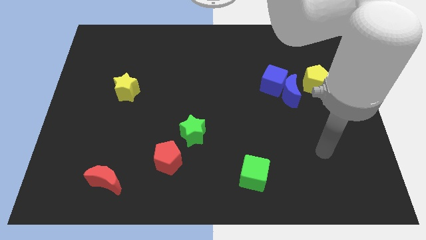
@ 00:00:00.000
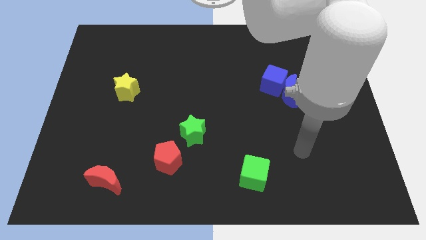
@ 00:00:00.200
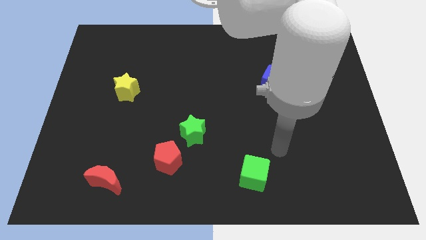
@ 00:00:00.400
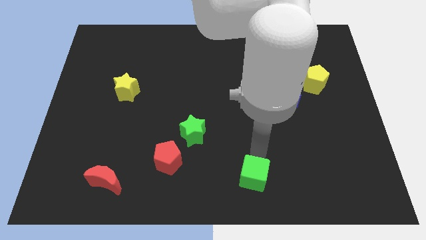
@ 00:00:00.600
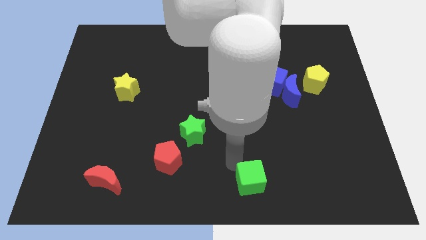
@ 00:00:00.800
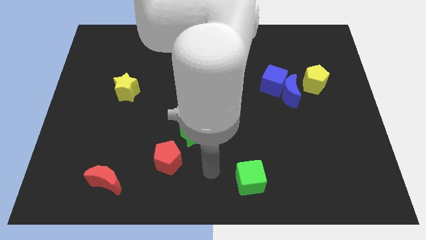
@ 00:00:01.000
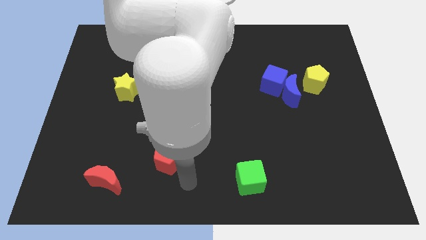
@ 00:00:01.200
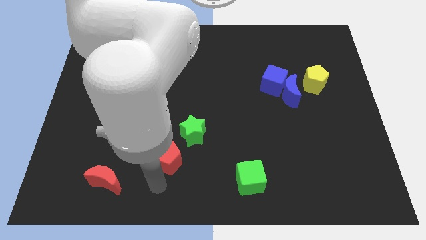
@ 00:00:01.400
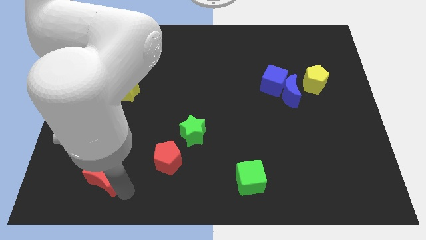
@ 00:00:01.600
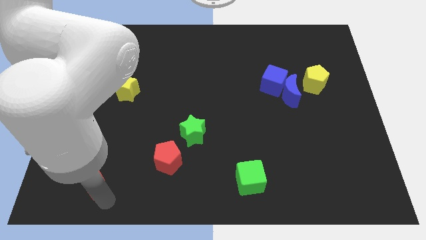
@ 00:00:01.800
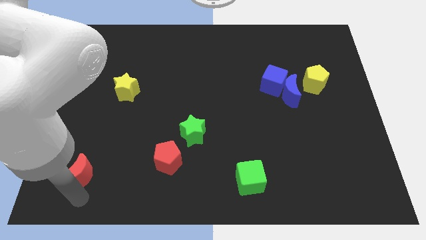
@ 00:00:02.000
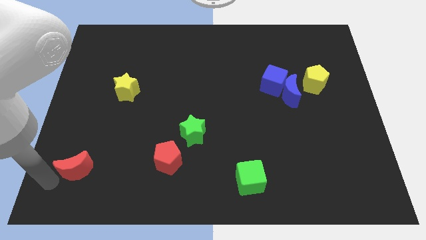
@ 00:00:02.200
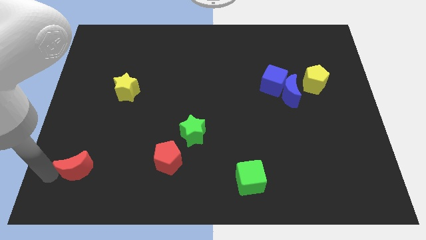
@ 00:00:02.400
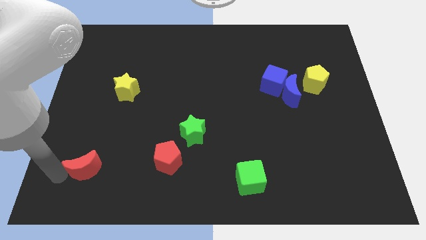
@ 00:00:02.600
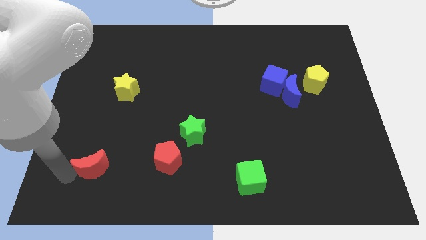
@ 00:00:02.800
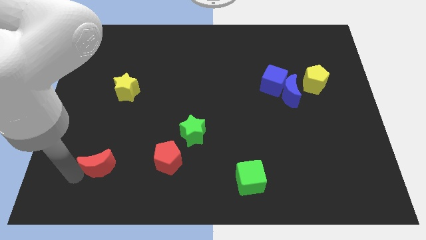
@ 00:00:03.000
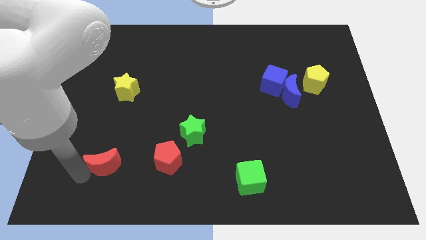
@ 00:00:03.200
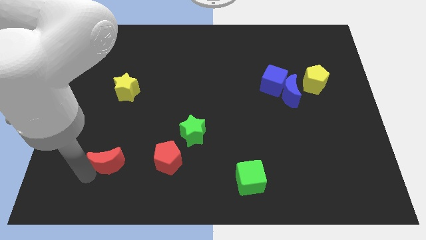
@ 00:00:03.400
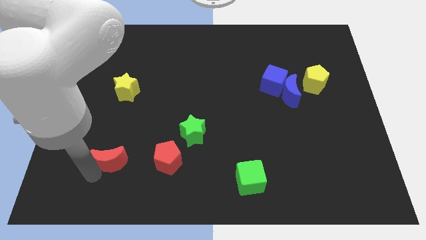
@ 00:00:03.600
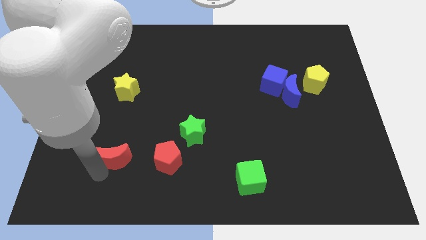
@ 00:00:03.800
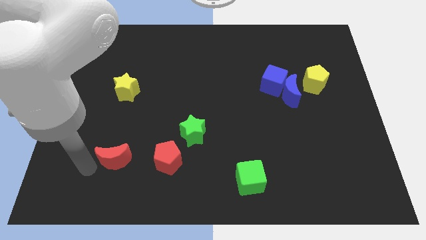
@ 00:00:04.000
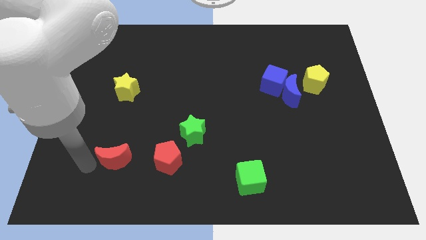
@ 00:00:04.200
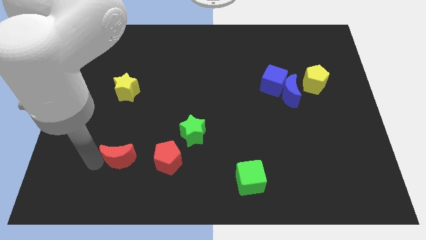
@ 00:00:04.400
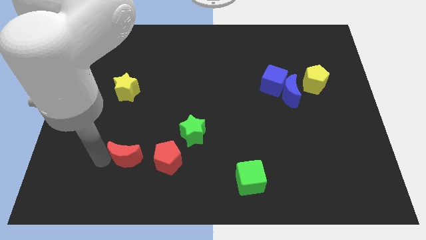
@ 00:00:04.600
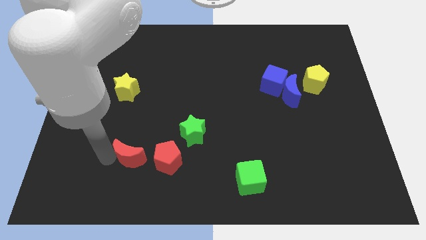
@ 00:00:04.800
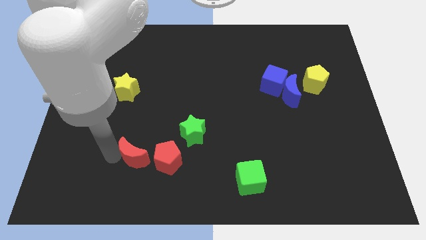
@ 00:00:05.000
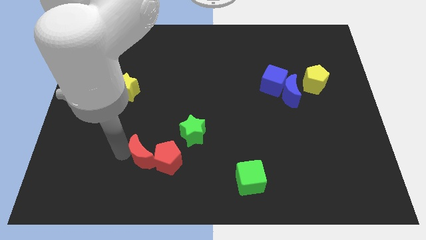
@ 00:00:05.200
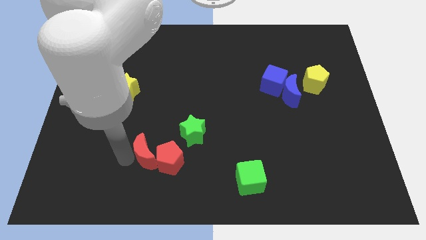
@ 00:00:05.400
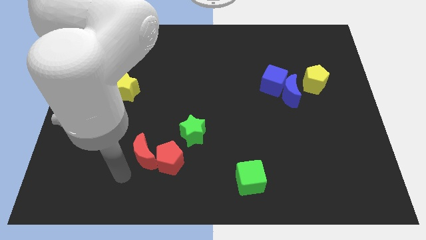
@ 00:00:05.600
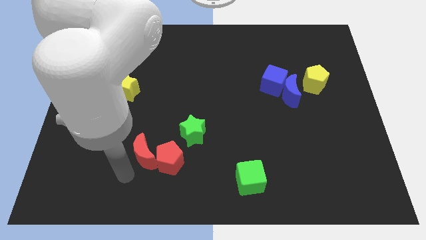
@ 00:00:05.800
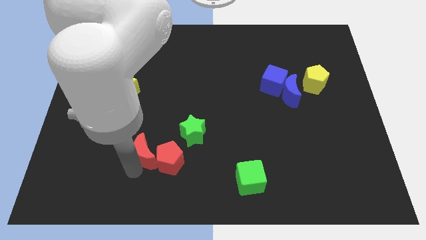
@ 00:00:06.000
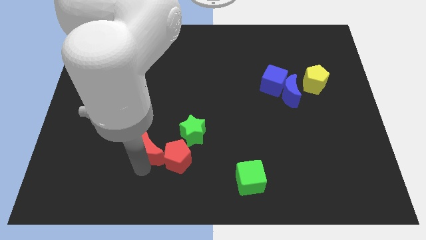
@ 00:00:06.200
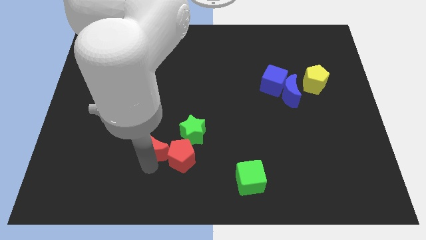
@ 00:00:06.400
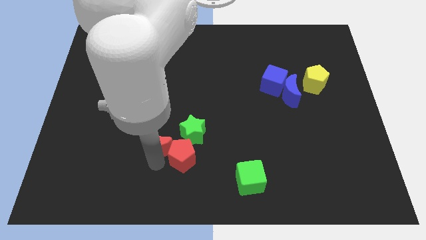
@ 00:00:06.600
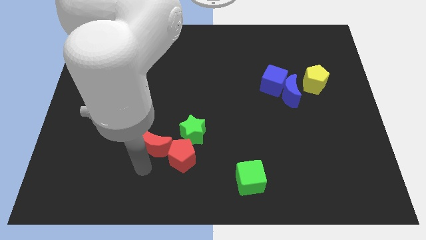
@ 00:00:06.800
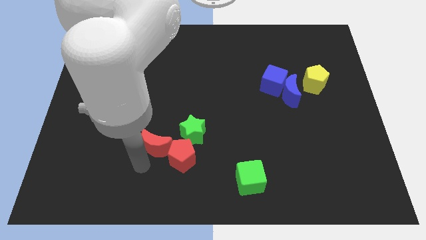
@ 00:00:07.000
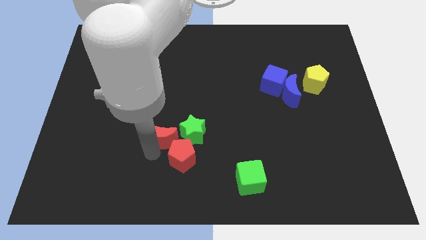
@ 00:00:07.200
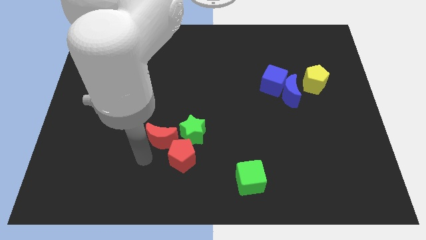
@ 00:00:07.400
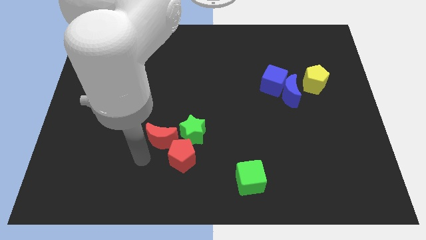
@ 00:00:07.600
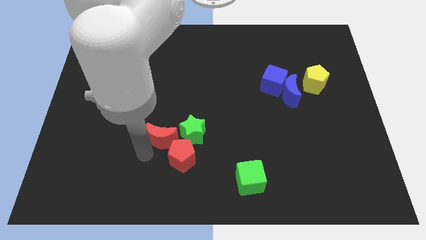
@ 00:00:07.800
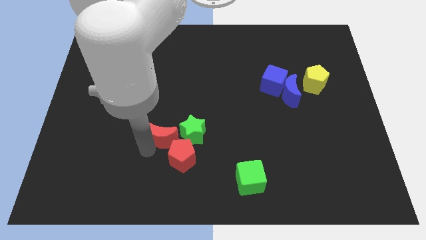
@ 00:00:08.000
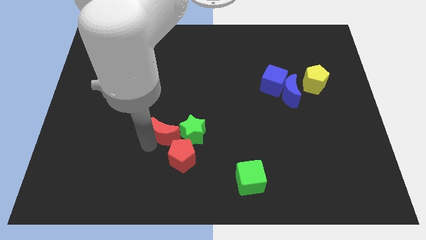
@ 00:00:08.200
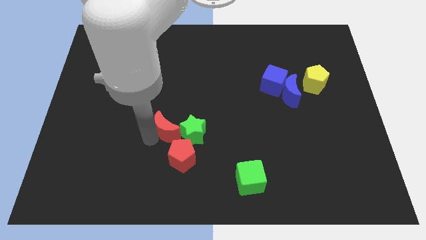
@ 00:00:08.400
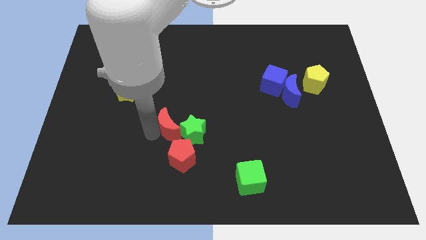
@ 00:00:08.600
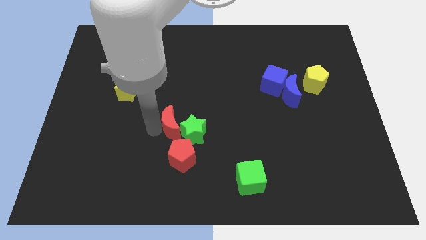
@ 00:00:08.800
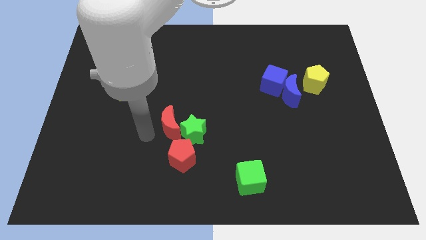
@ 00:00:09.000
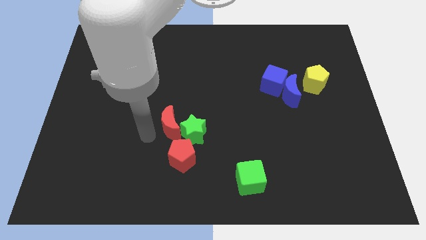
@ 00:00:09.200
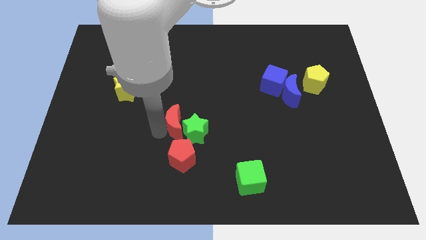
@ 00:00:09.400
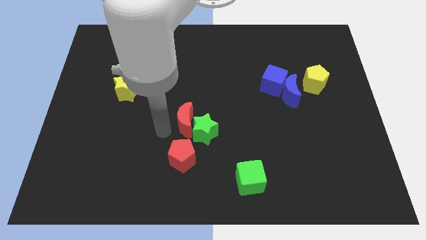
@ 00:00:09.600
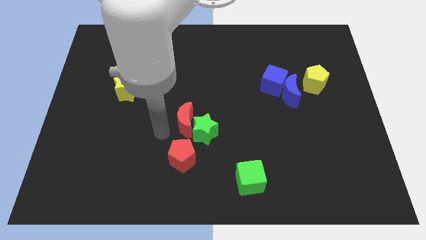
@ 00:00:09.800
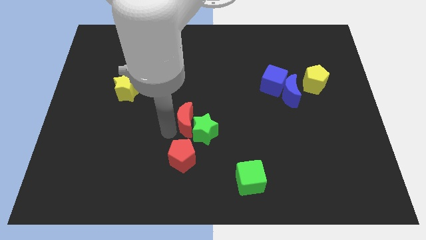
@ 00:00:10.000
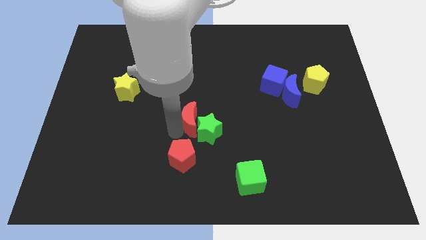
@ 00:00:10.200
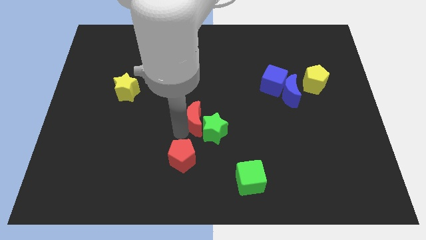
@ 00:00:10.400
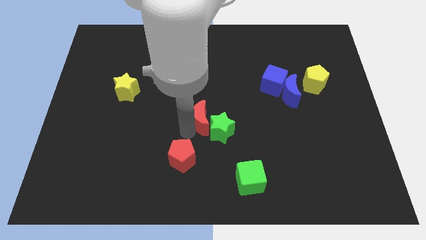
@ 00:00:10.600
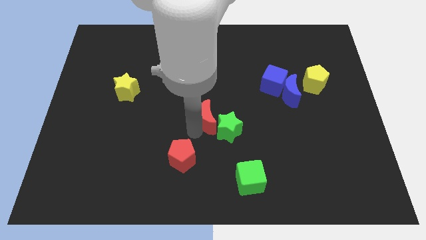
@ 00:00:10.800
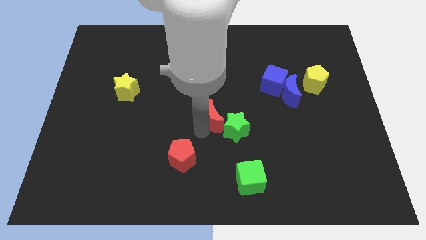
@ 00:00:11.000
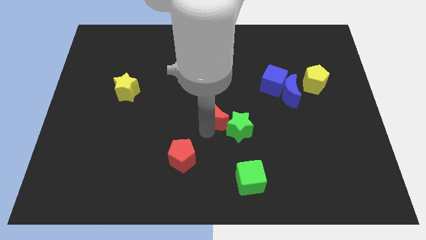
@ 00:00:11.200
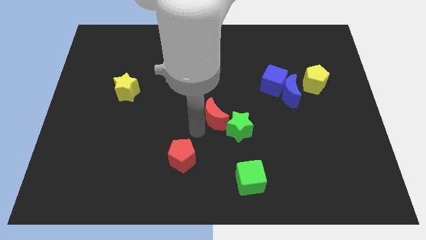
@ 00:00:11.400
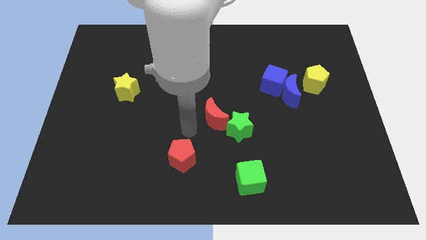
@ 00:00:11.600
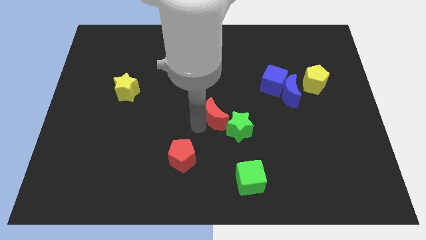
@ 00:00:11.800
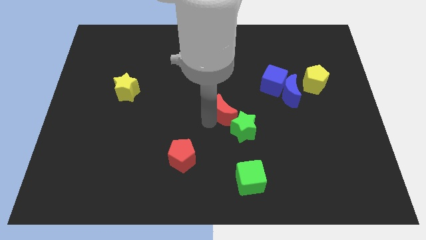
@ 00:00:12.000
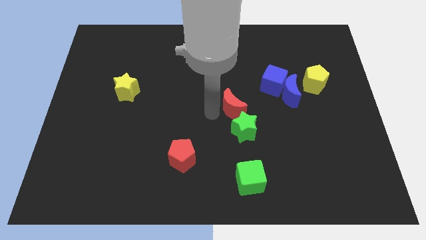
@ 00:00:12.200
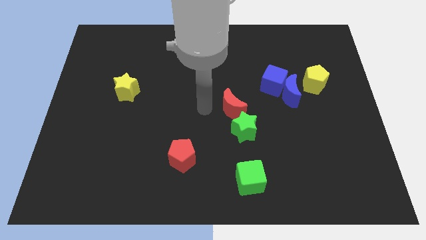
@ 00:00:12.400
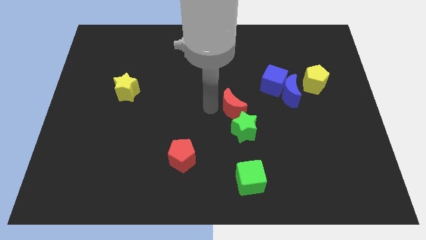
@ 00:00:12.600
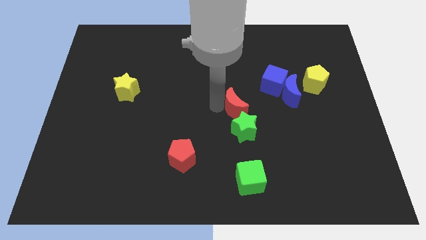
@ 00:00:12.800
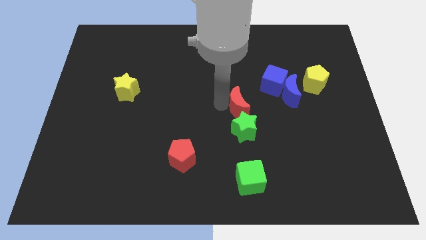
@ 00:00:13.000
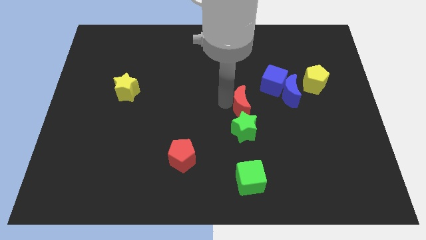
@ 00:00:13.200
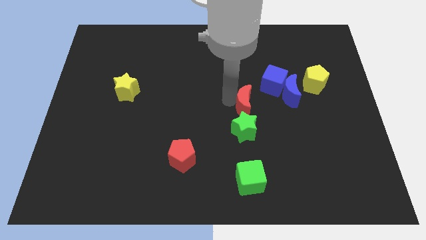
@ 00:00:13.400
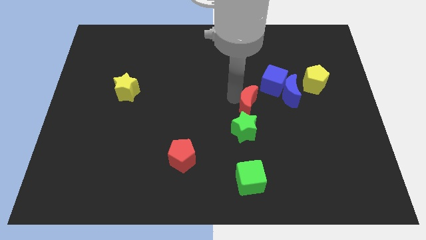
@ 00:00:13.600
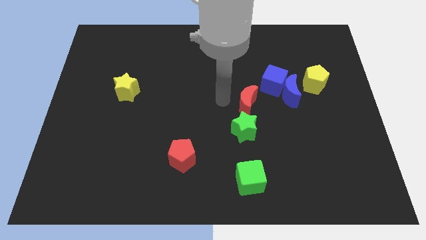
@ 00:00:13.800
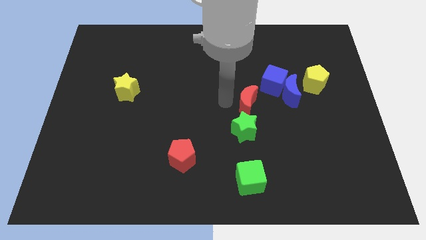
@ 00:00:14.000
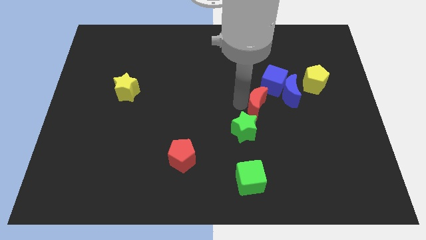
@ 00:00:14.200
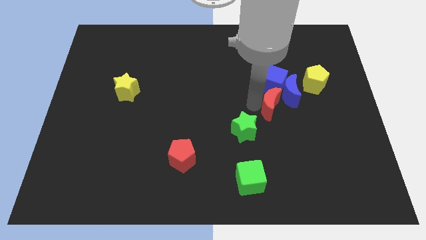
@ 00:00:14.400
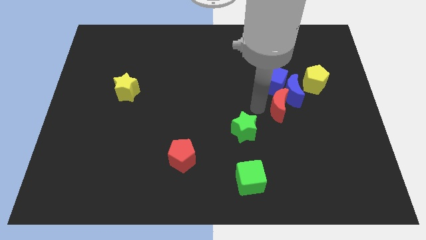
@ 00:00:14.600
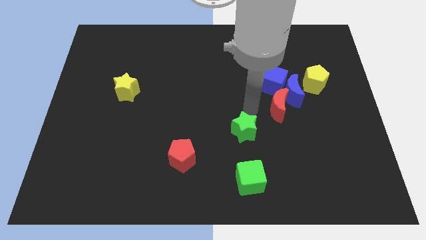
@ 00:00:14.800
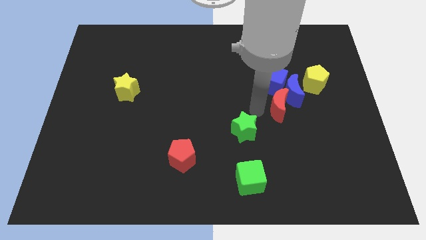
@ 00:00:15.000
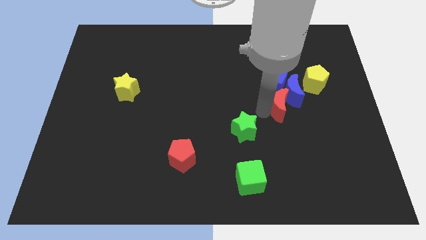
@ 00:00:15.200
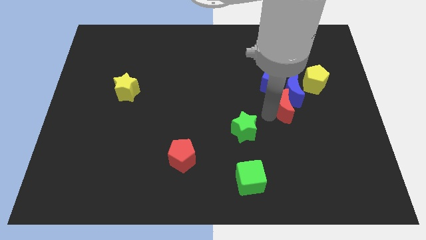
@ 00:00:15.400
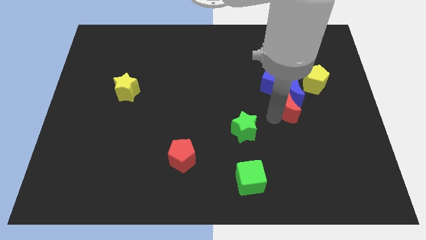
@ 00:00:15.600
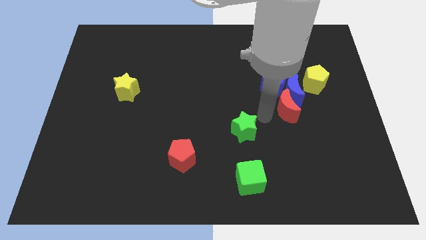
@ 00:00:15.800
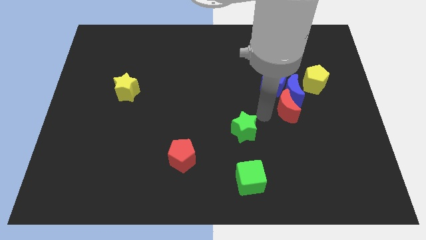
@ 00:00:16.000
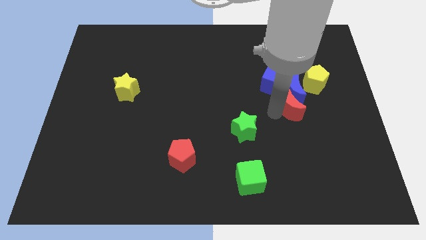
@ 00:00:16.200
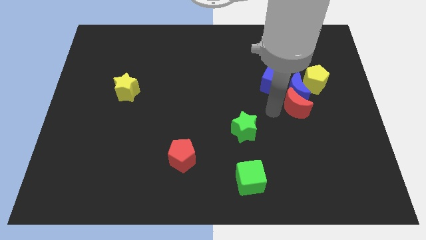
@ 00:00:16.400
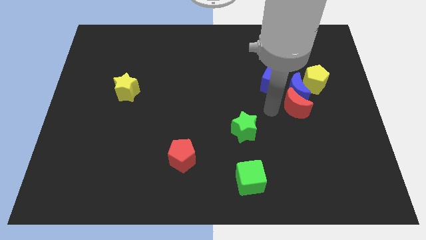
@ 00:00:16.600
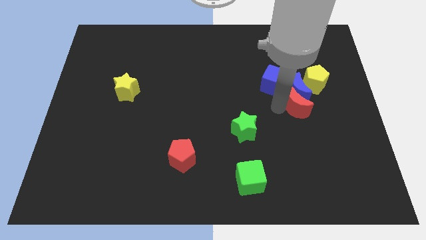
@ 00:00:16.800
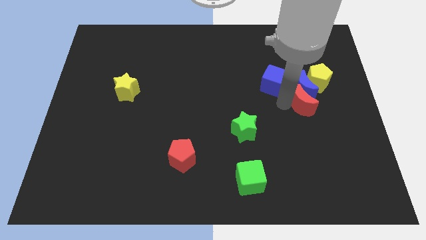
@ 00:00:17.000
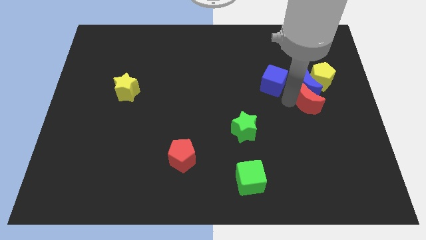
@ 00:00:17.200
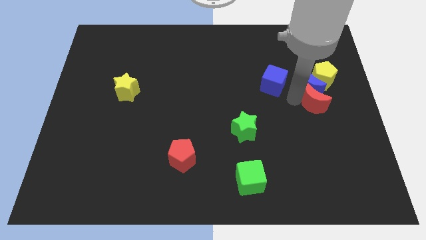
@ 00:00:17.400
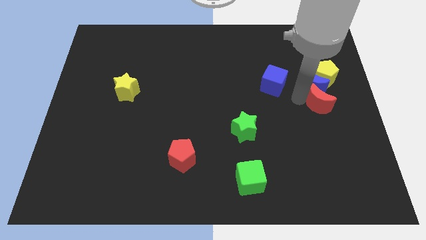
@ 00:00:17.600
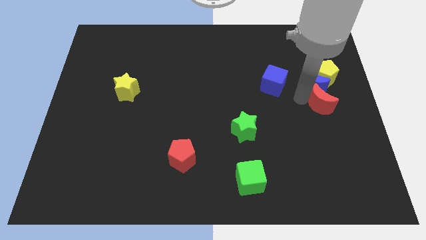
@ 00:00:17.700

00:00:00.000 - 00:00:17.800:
slide the red moon to the right side of the board
